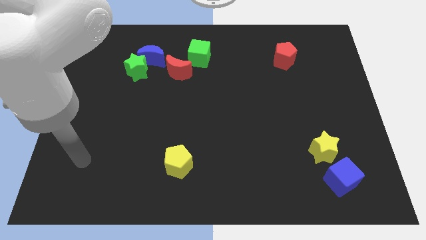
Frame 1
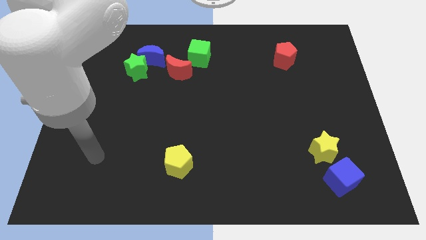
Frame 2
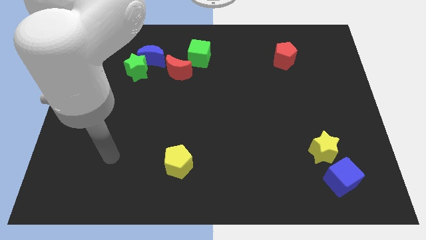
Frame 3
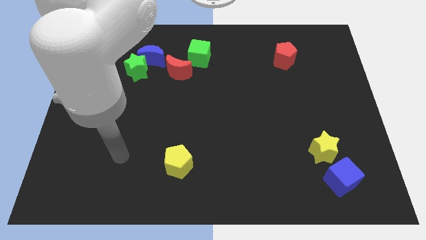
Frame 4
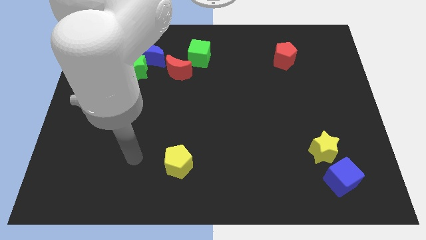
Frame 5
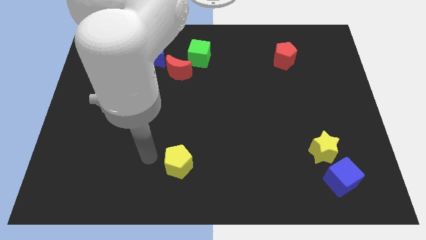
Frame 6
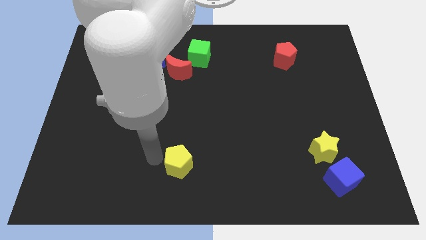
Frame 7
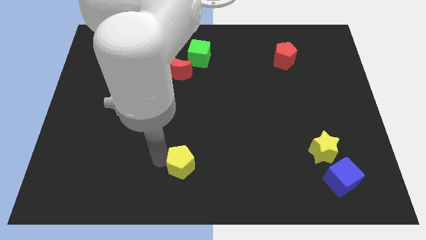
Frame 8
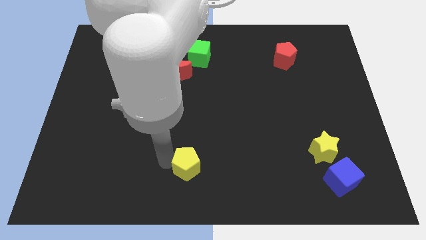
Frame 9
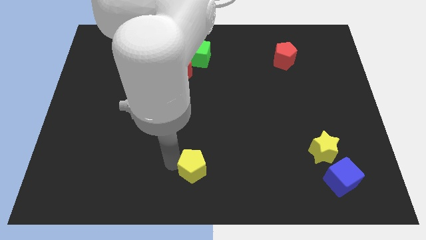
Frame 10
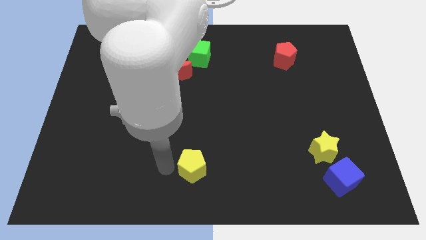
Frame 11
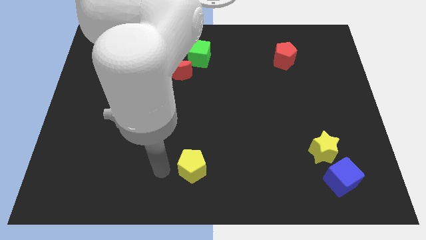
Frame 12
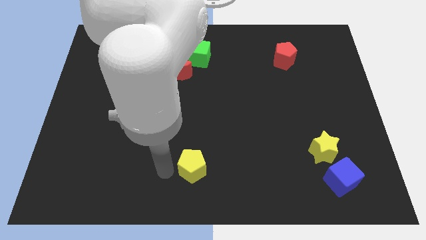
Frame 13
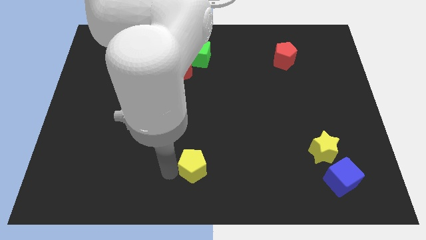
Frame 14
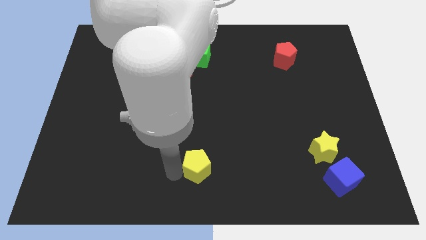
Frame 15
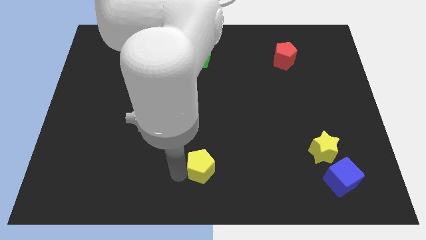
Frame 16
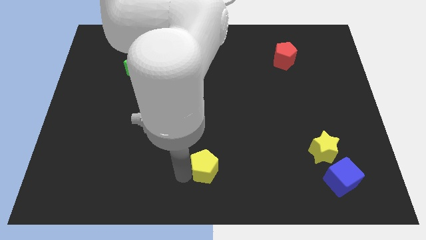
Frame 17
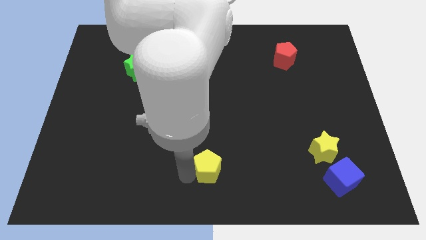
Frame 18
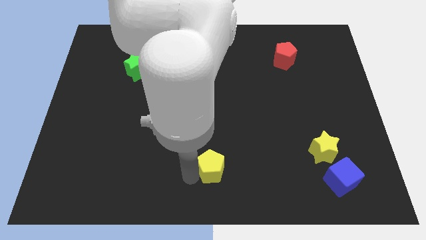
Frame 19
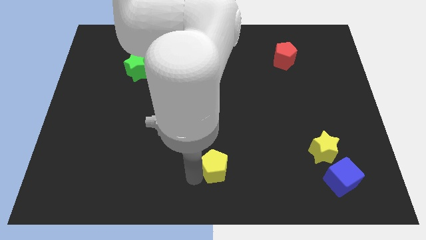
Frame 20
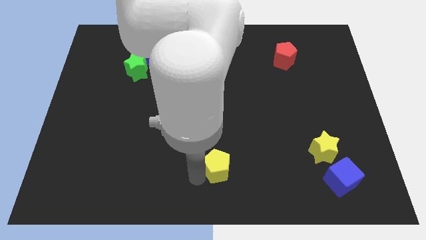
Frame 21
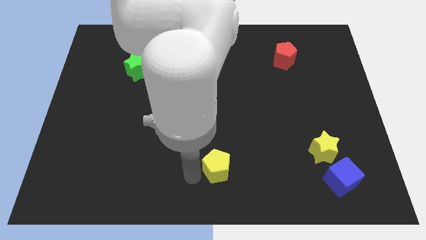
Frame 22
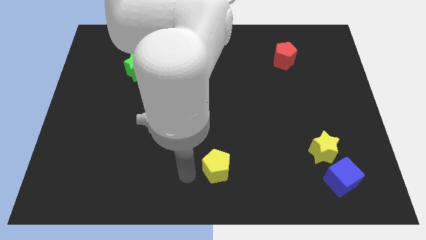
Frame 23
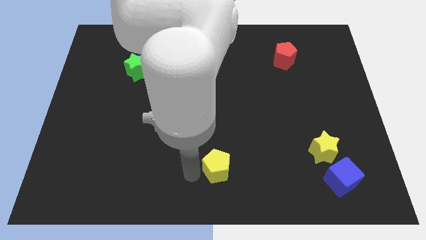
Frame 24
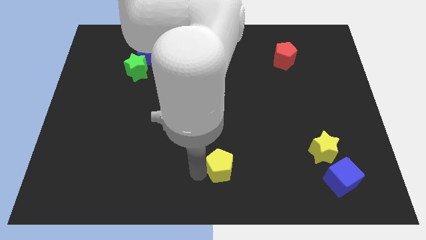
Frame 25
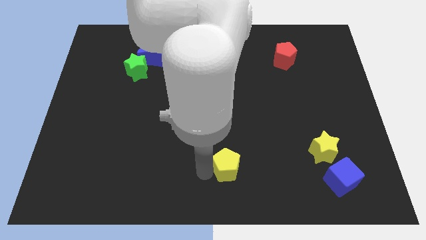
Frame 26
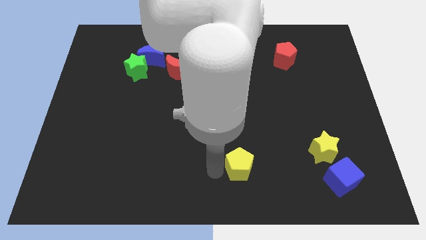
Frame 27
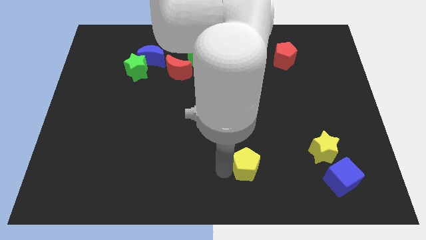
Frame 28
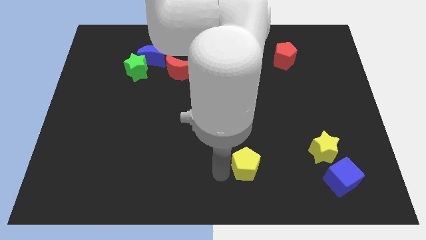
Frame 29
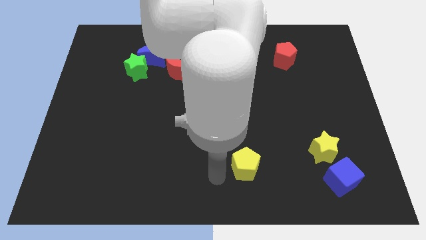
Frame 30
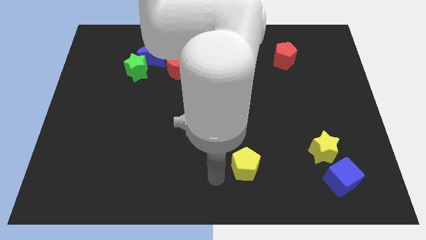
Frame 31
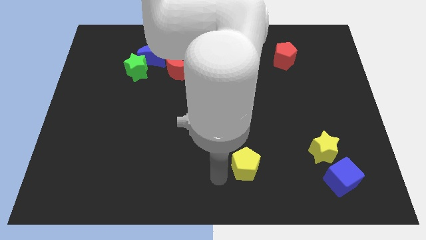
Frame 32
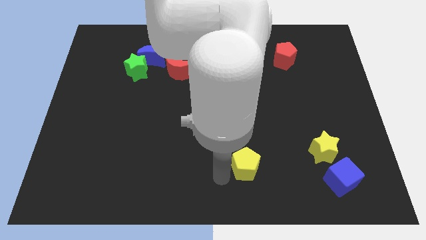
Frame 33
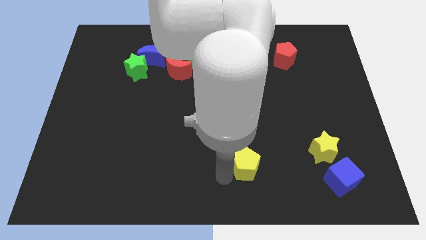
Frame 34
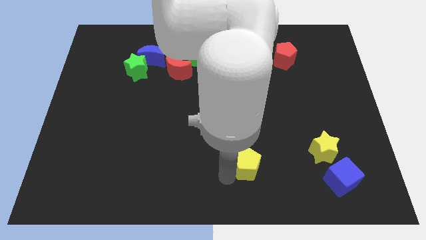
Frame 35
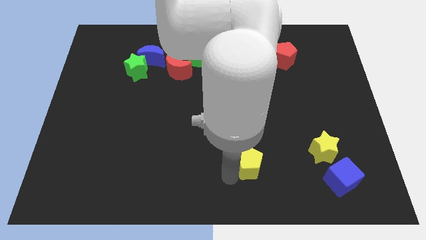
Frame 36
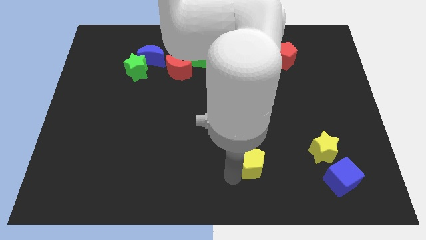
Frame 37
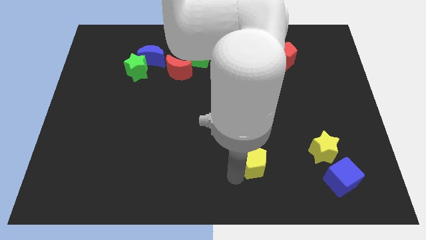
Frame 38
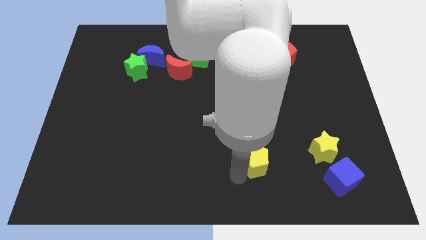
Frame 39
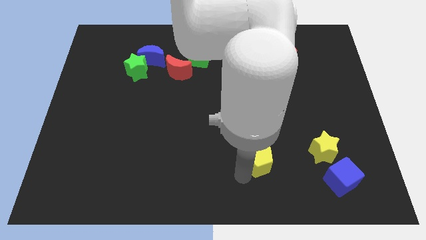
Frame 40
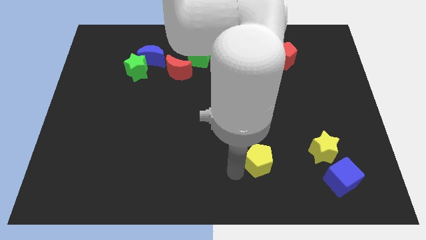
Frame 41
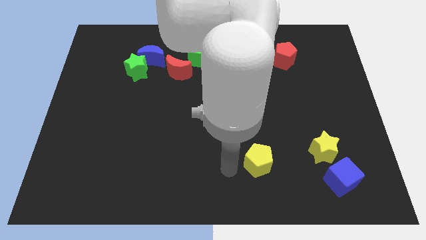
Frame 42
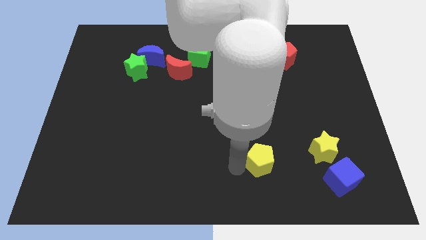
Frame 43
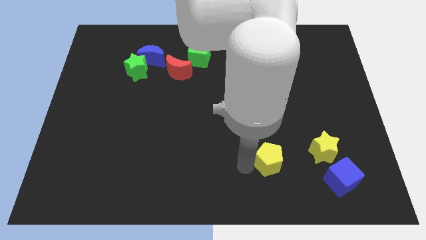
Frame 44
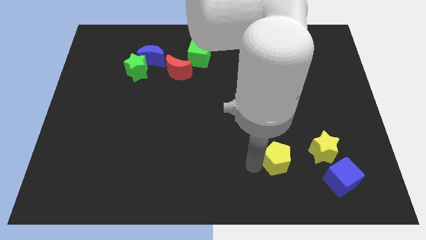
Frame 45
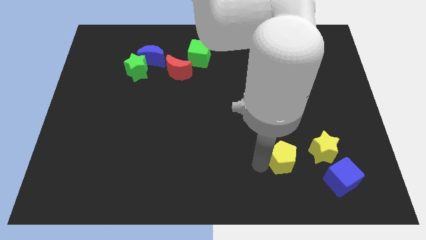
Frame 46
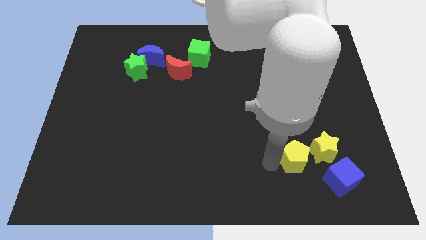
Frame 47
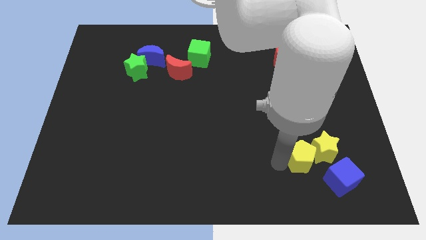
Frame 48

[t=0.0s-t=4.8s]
put the yellow pentagon towards the yellow star

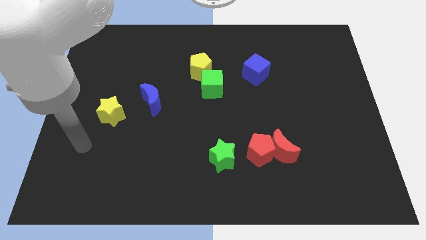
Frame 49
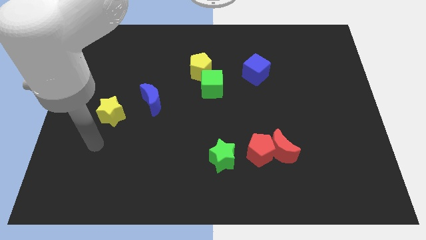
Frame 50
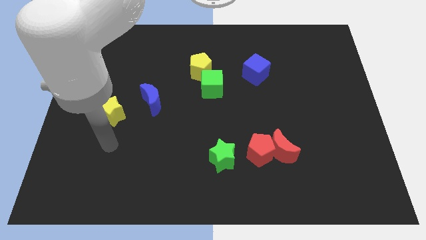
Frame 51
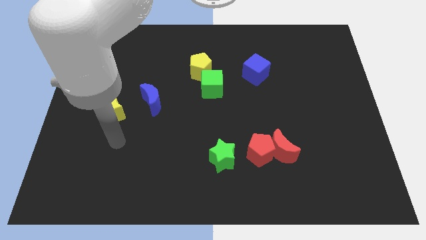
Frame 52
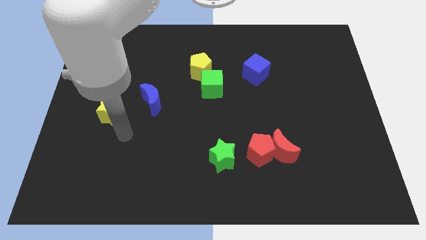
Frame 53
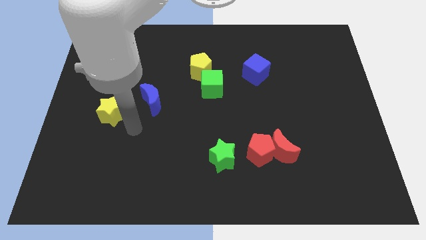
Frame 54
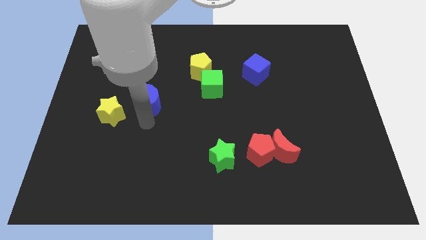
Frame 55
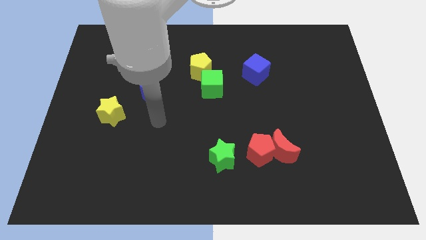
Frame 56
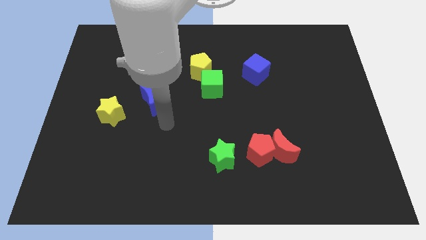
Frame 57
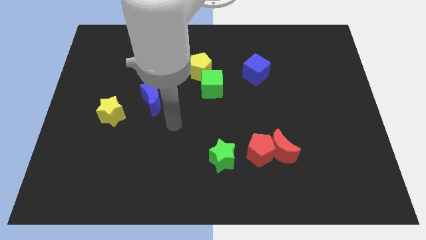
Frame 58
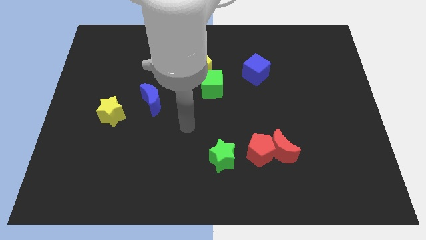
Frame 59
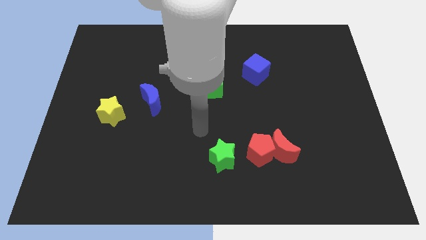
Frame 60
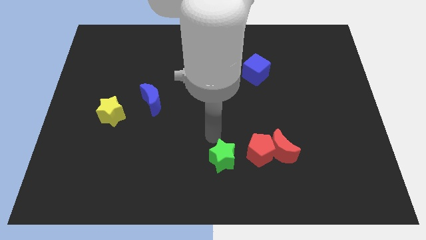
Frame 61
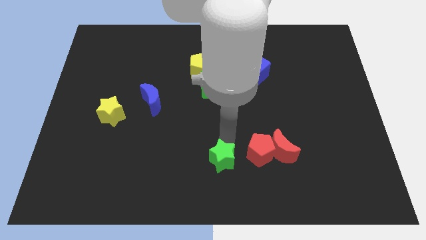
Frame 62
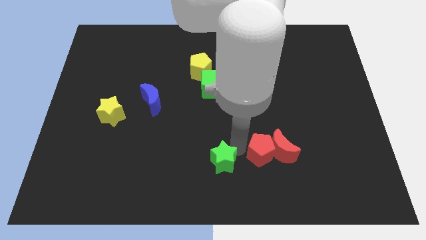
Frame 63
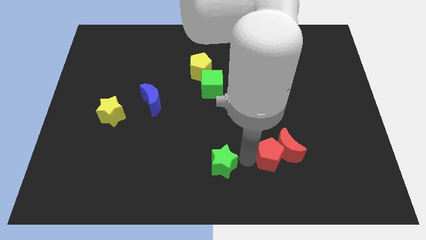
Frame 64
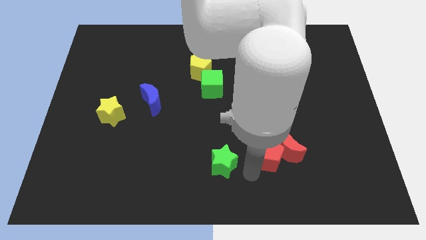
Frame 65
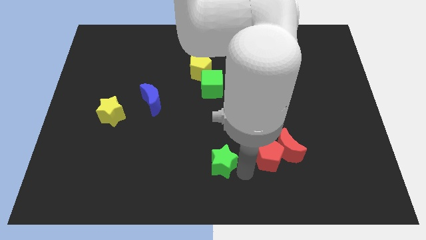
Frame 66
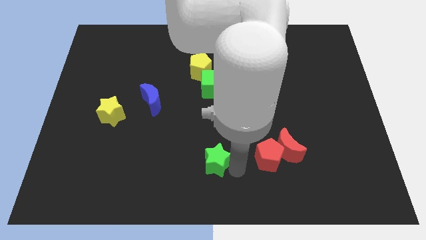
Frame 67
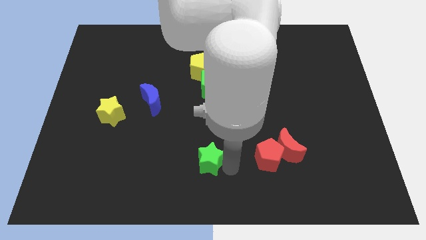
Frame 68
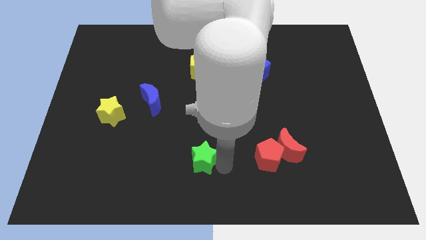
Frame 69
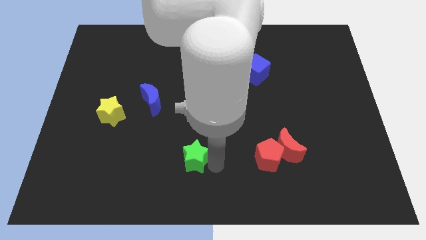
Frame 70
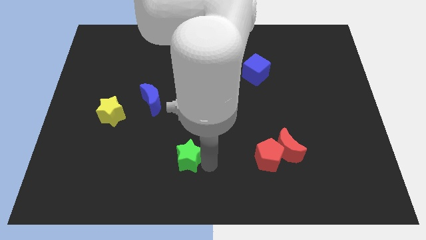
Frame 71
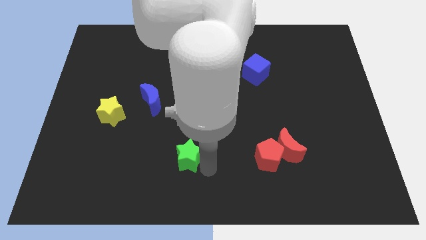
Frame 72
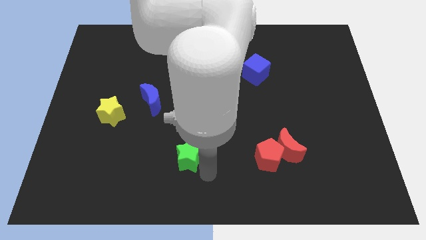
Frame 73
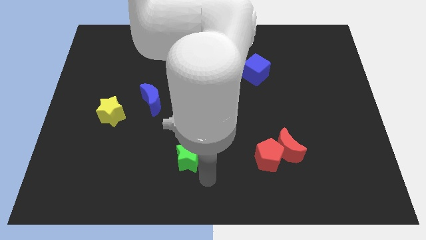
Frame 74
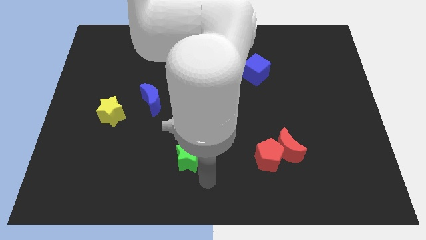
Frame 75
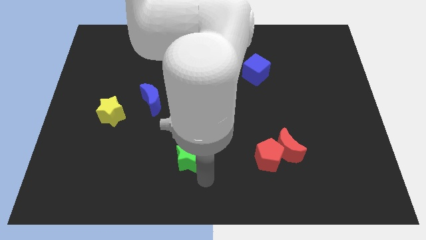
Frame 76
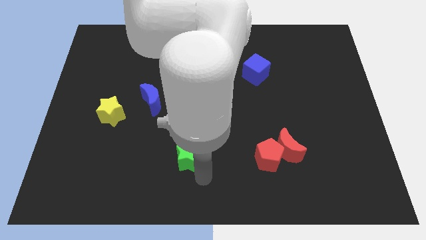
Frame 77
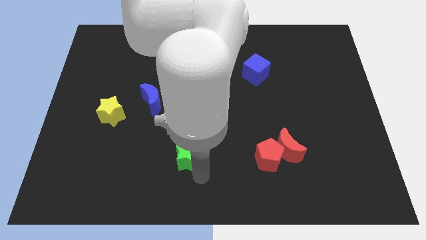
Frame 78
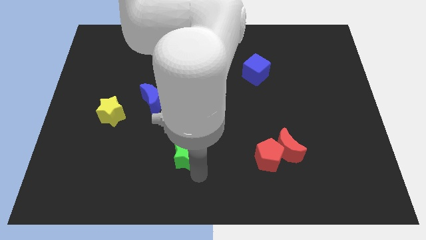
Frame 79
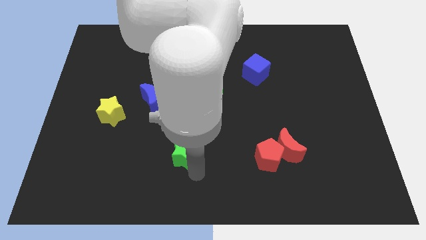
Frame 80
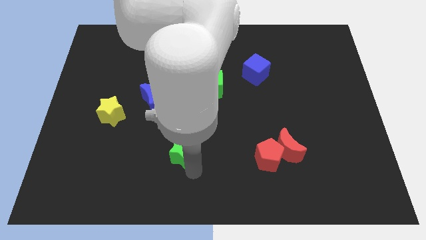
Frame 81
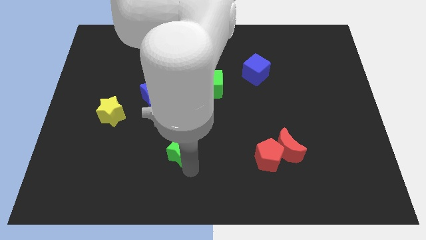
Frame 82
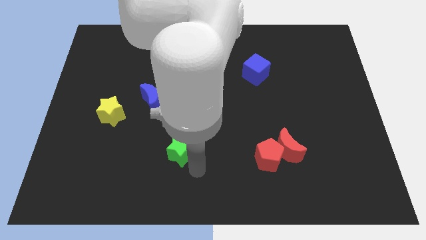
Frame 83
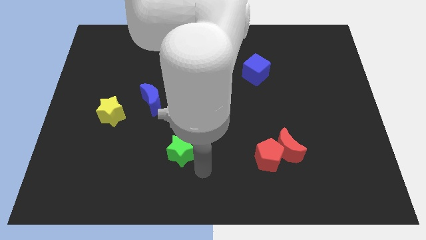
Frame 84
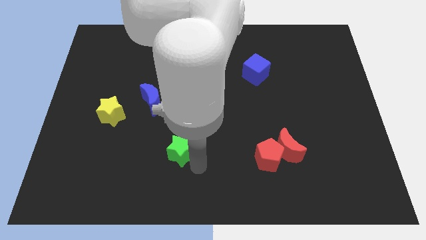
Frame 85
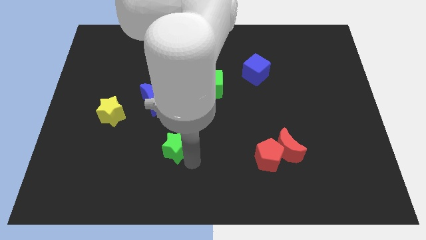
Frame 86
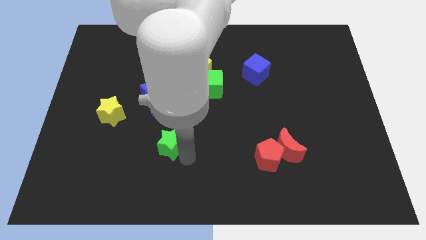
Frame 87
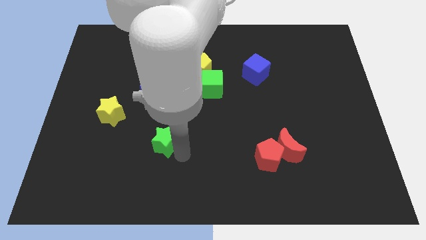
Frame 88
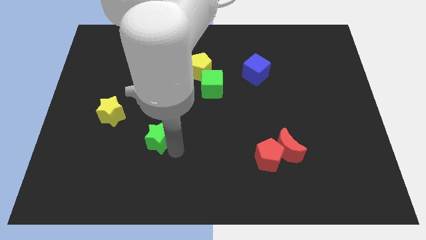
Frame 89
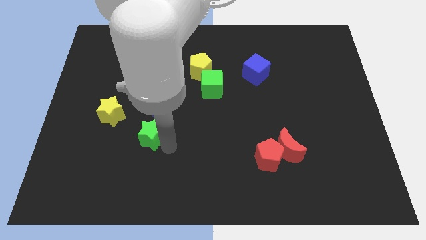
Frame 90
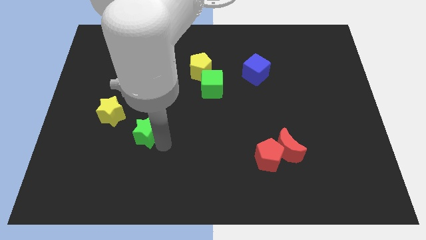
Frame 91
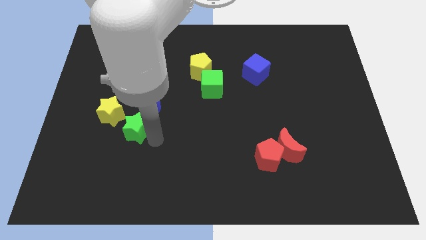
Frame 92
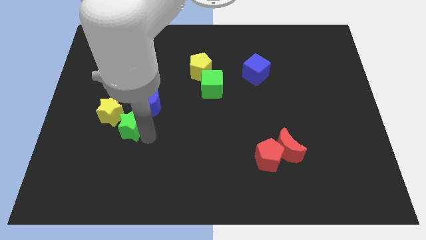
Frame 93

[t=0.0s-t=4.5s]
put the green star close to the yellow star
